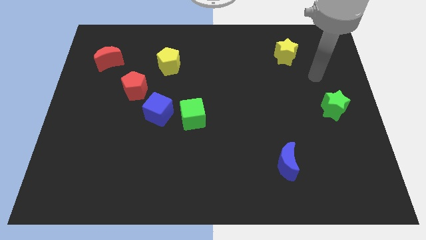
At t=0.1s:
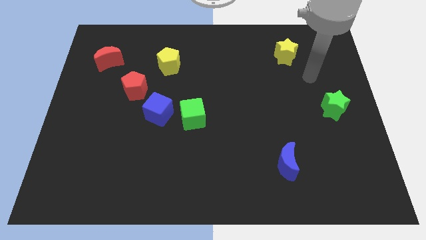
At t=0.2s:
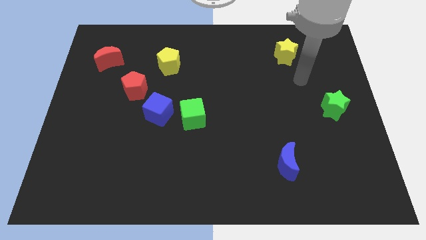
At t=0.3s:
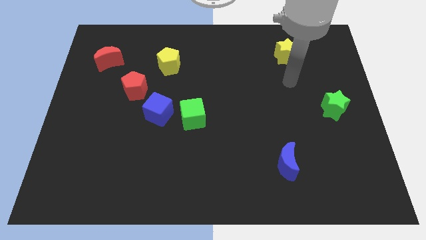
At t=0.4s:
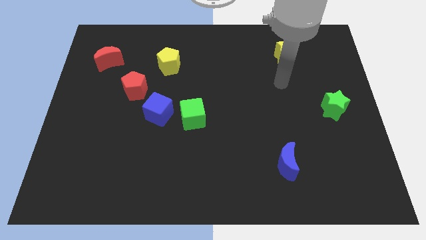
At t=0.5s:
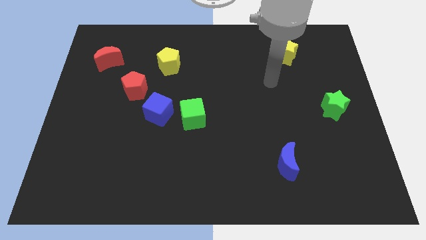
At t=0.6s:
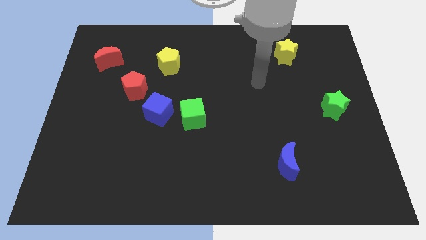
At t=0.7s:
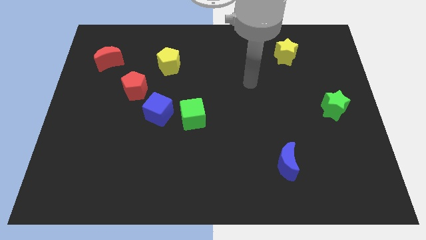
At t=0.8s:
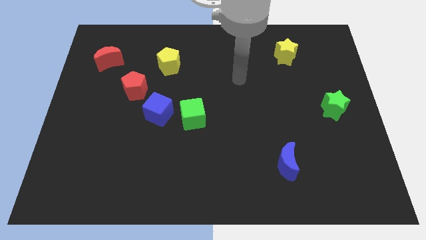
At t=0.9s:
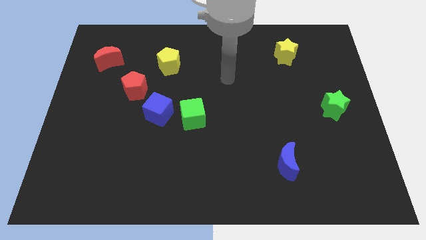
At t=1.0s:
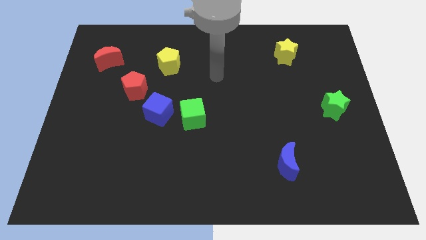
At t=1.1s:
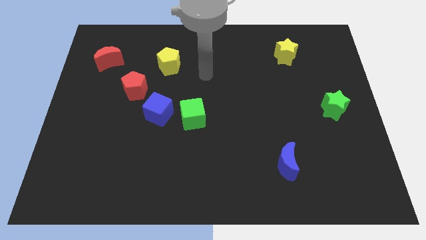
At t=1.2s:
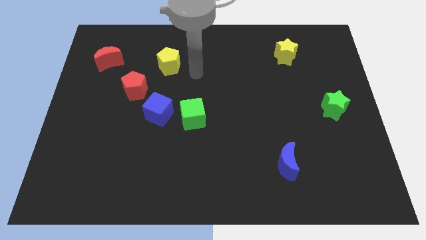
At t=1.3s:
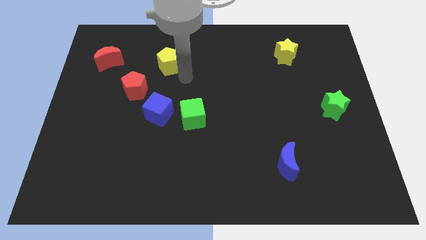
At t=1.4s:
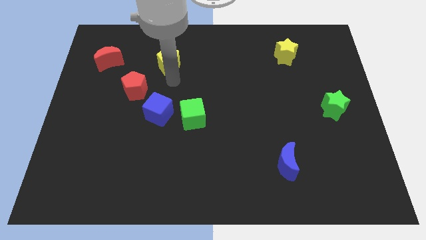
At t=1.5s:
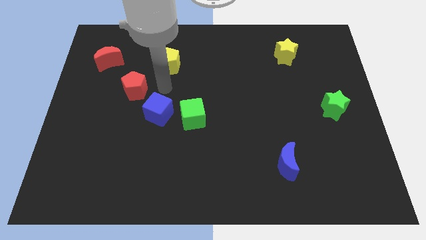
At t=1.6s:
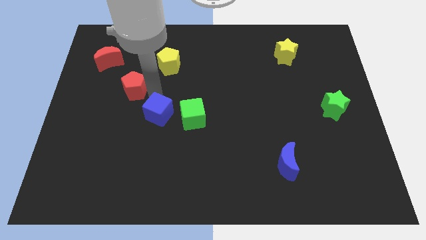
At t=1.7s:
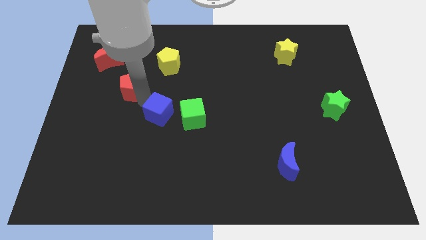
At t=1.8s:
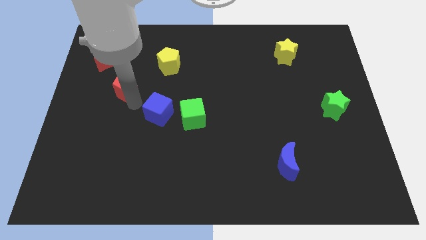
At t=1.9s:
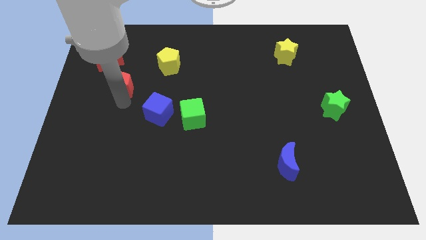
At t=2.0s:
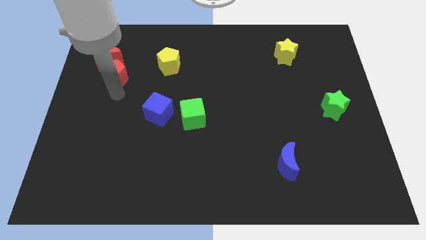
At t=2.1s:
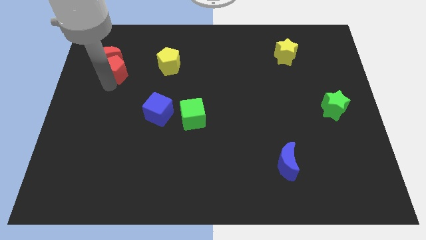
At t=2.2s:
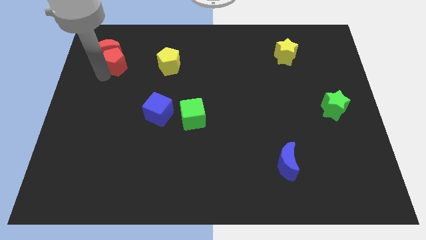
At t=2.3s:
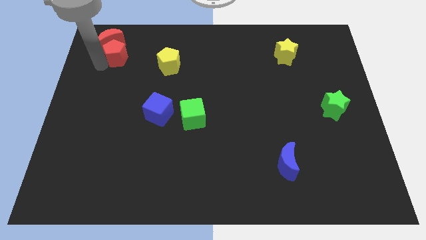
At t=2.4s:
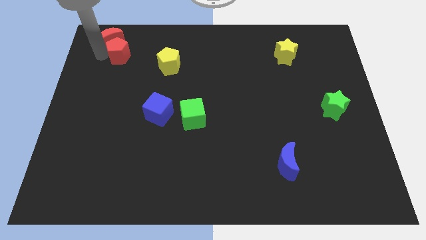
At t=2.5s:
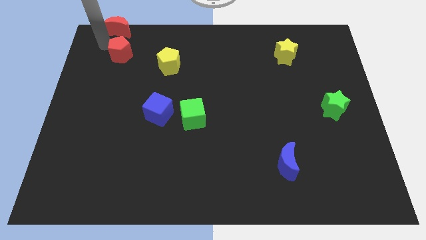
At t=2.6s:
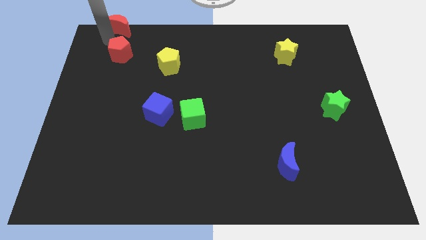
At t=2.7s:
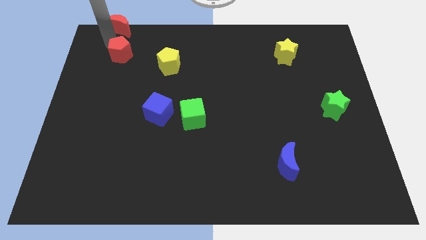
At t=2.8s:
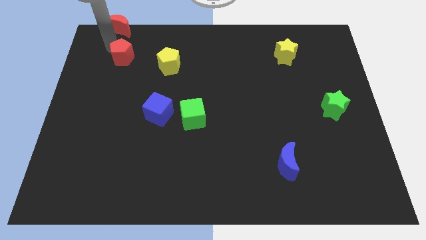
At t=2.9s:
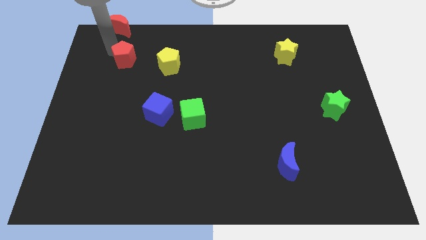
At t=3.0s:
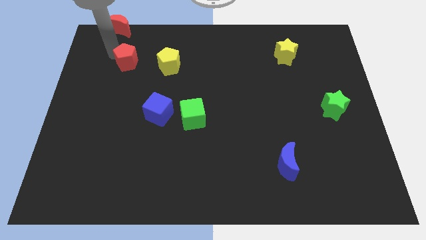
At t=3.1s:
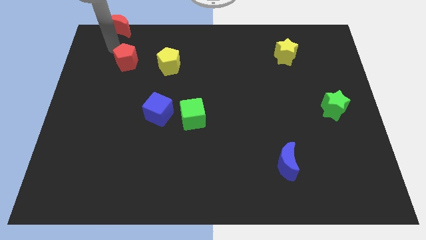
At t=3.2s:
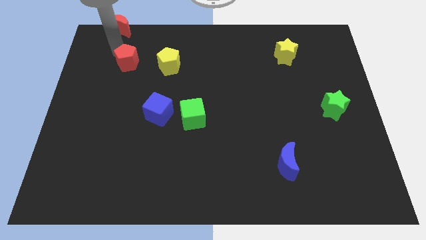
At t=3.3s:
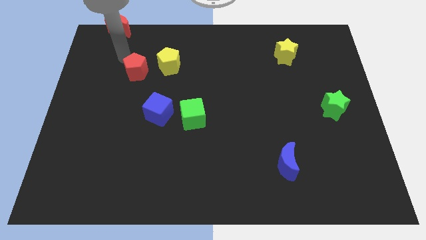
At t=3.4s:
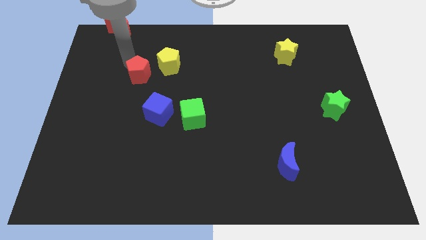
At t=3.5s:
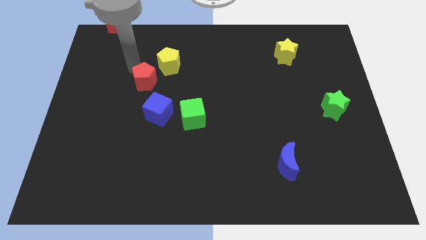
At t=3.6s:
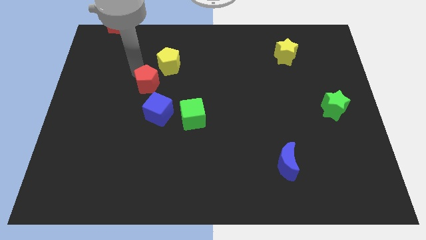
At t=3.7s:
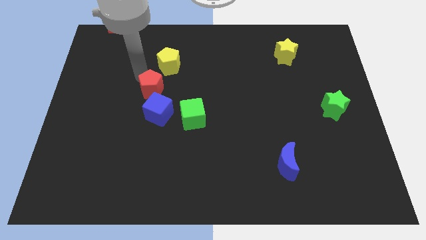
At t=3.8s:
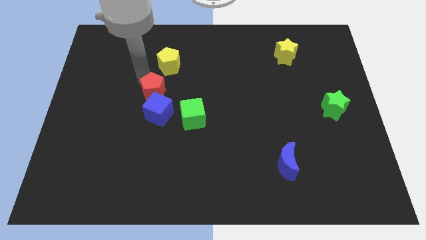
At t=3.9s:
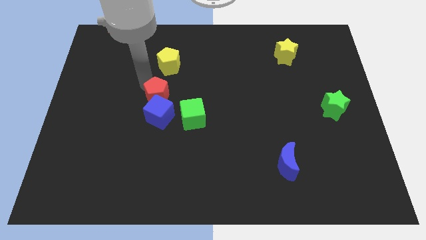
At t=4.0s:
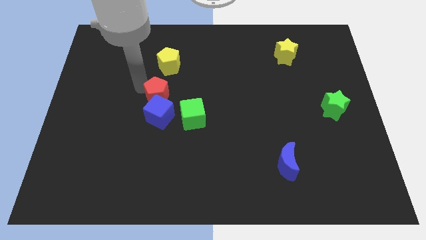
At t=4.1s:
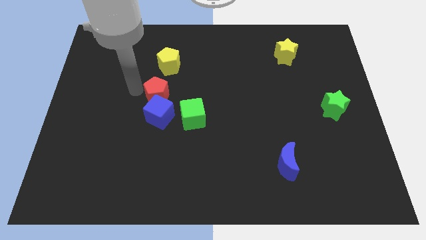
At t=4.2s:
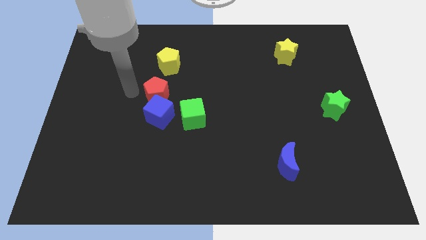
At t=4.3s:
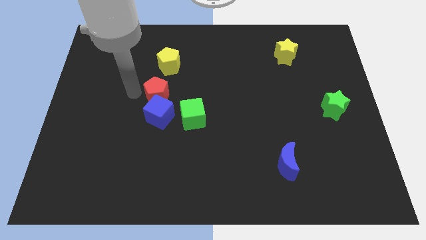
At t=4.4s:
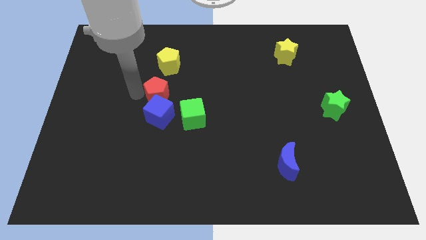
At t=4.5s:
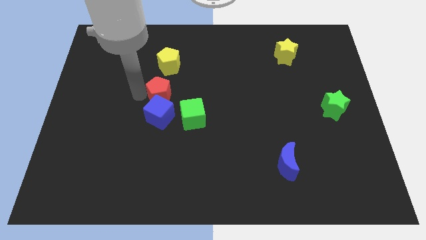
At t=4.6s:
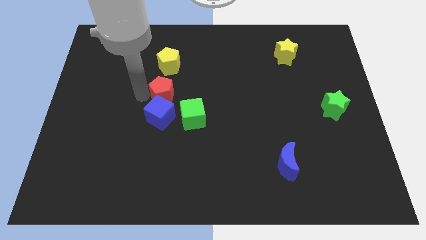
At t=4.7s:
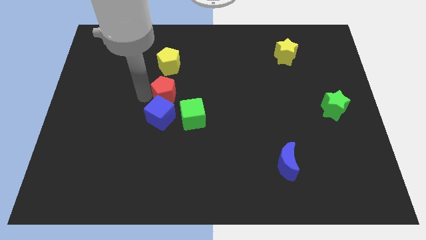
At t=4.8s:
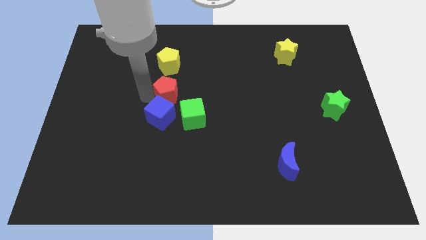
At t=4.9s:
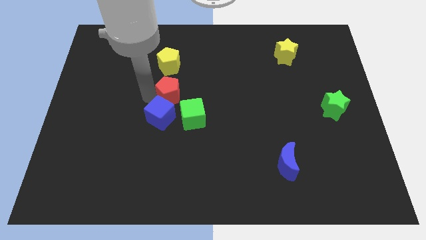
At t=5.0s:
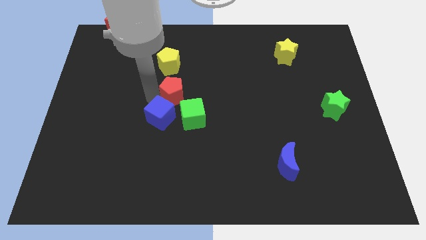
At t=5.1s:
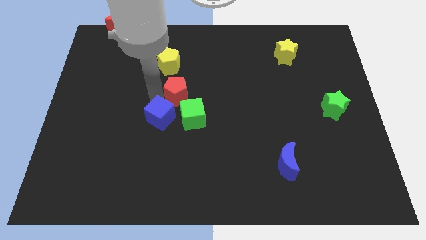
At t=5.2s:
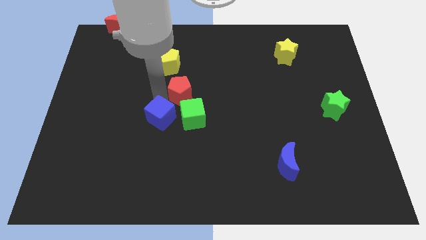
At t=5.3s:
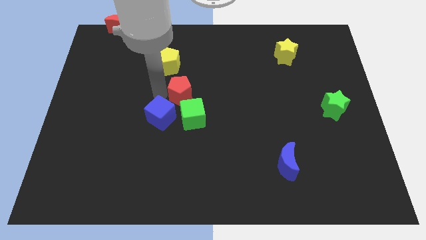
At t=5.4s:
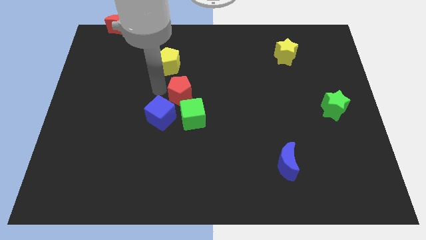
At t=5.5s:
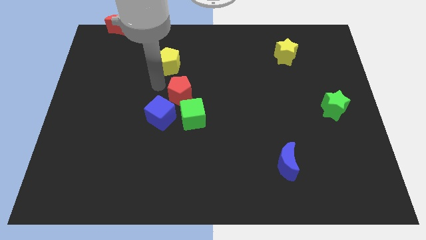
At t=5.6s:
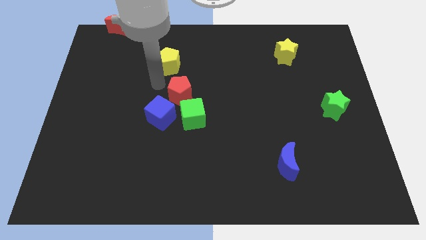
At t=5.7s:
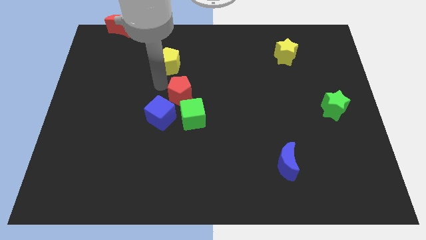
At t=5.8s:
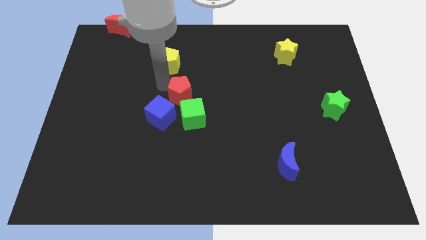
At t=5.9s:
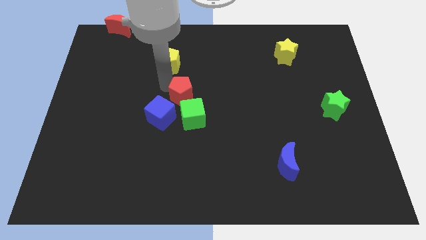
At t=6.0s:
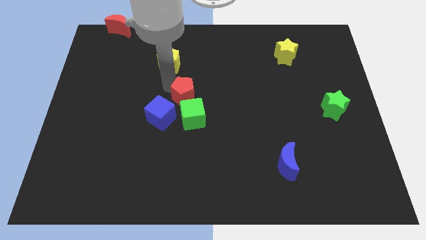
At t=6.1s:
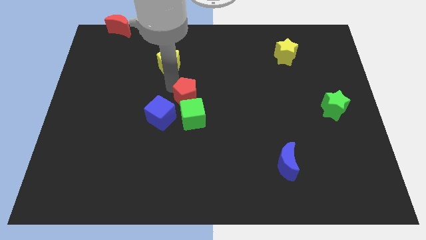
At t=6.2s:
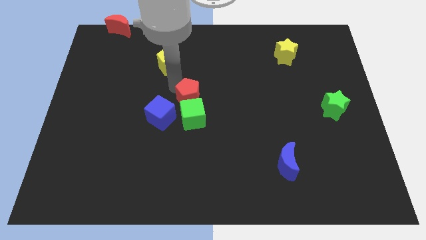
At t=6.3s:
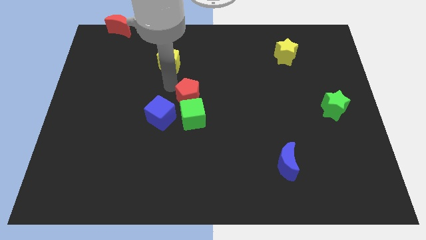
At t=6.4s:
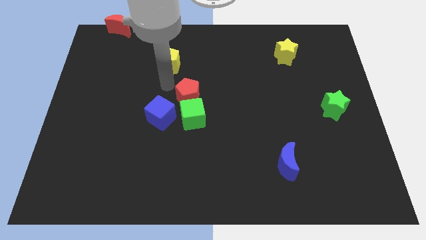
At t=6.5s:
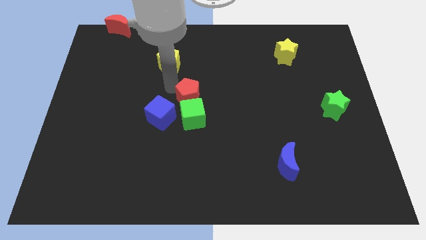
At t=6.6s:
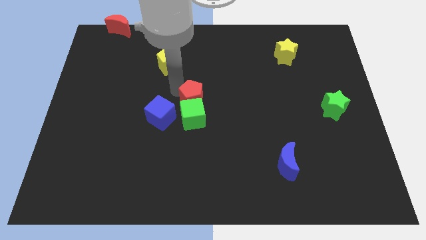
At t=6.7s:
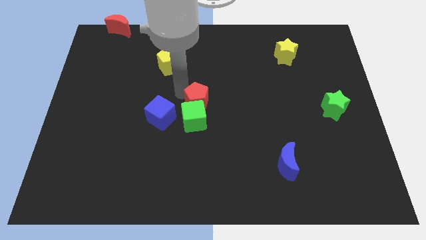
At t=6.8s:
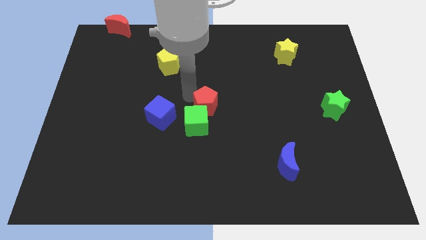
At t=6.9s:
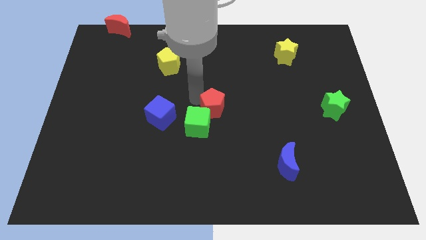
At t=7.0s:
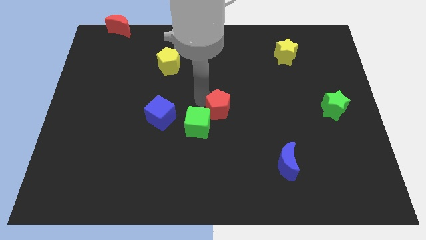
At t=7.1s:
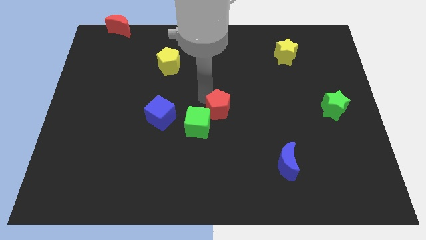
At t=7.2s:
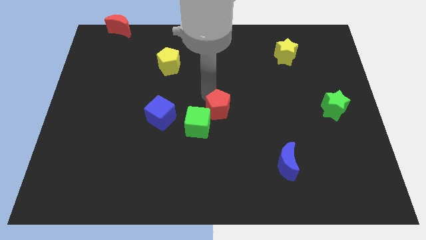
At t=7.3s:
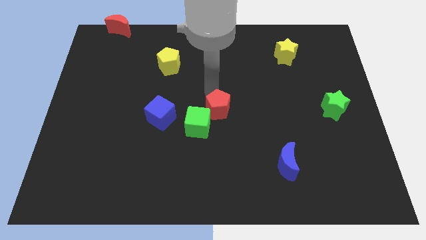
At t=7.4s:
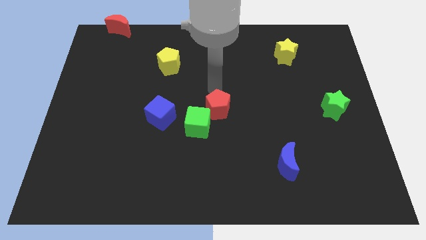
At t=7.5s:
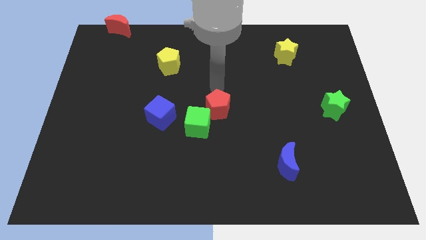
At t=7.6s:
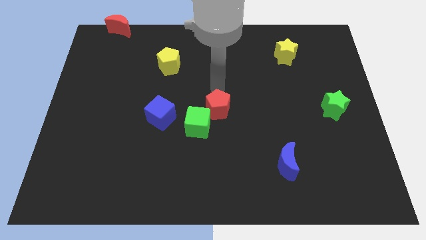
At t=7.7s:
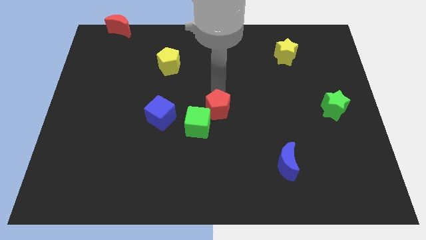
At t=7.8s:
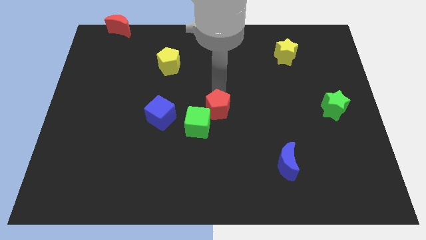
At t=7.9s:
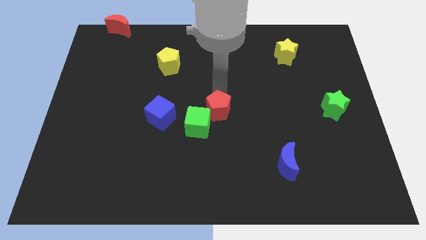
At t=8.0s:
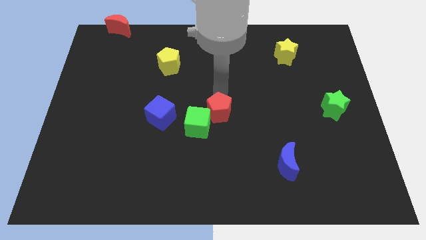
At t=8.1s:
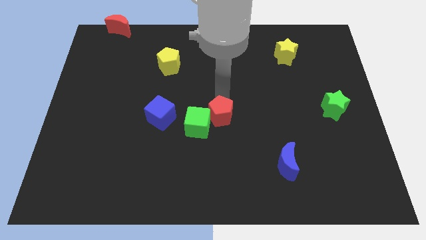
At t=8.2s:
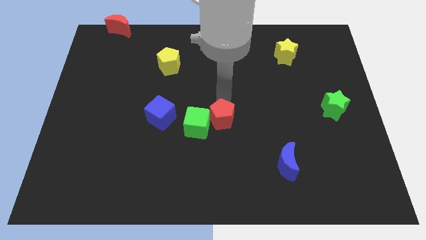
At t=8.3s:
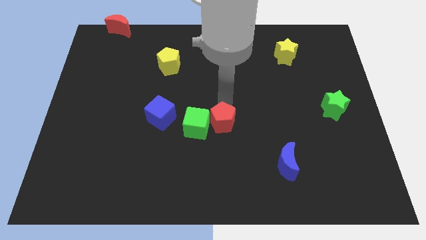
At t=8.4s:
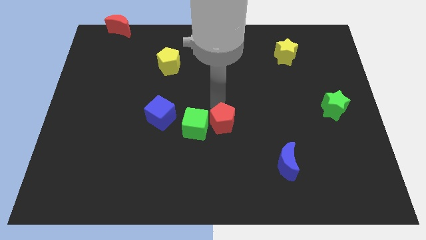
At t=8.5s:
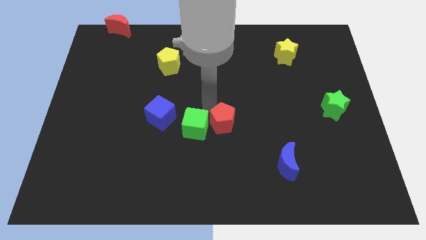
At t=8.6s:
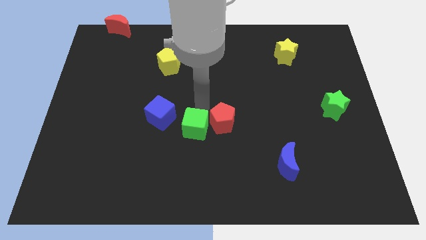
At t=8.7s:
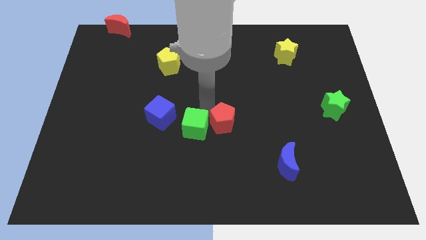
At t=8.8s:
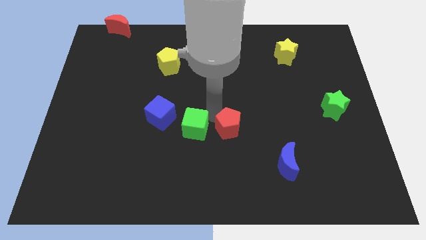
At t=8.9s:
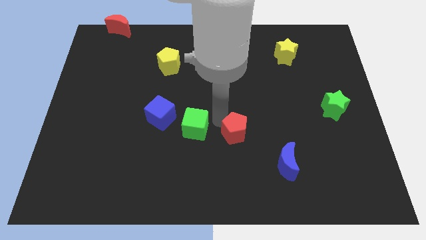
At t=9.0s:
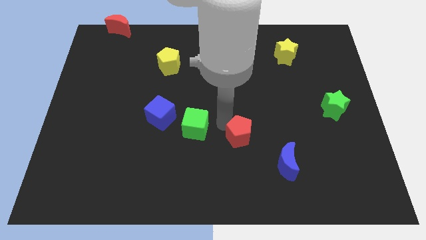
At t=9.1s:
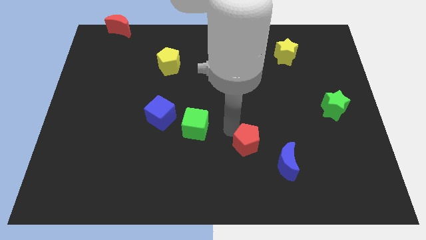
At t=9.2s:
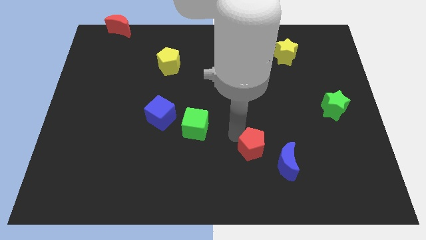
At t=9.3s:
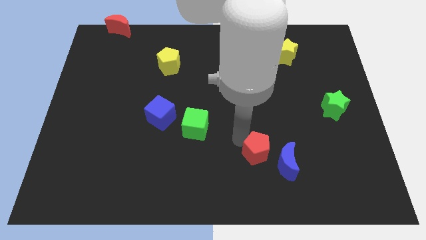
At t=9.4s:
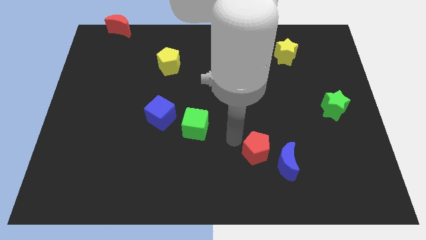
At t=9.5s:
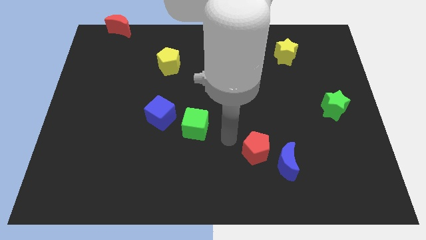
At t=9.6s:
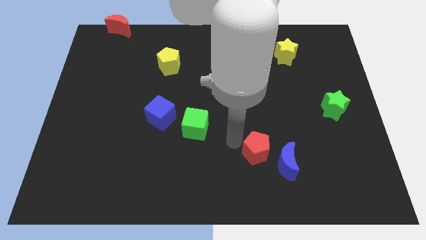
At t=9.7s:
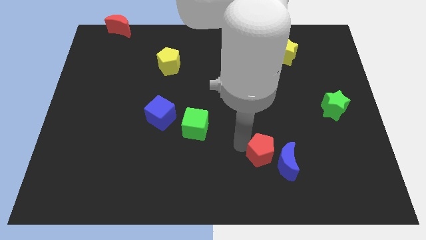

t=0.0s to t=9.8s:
move the red pentagon towards the blue moon
